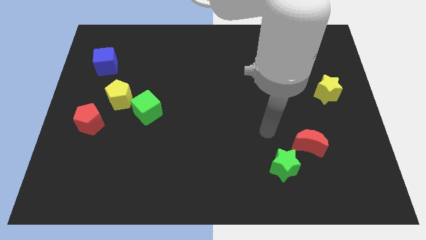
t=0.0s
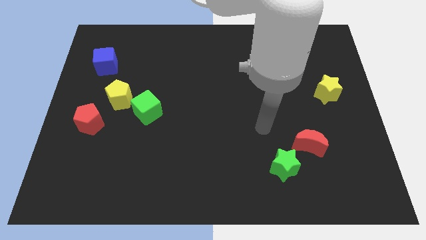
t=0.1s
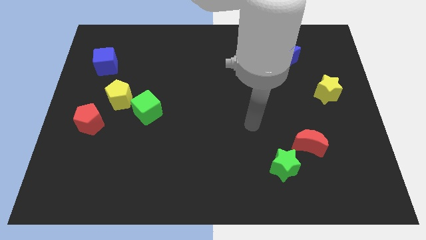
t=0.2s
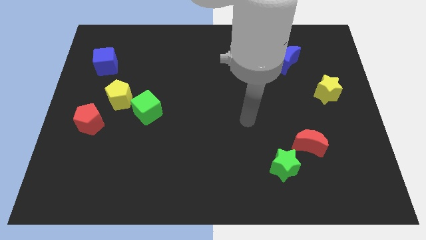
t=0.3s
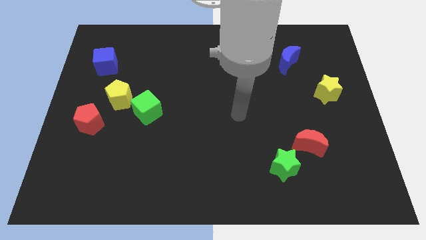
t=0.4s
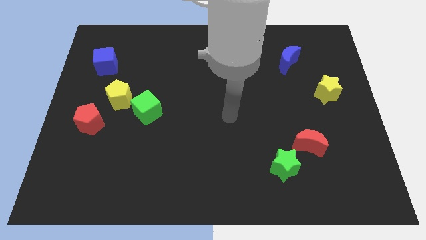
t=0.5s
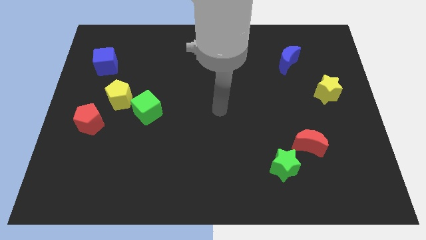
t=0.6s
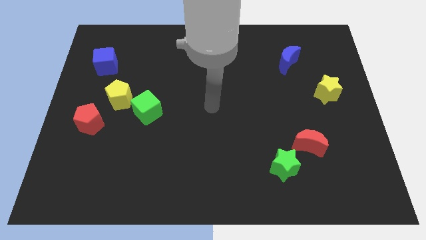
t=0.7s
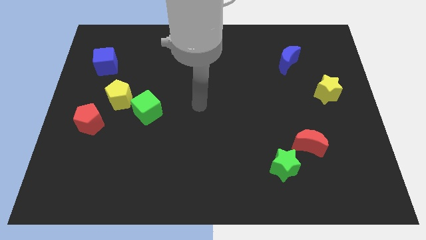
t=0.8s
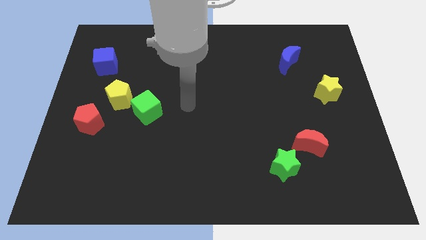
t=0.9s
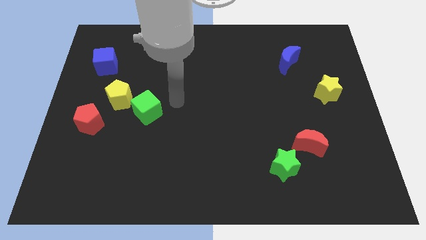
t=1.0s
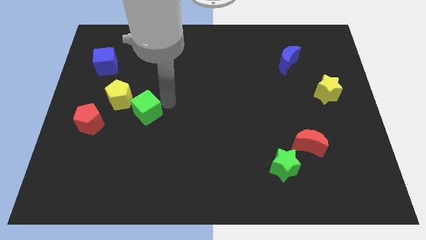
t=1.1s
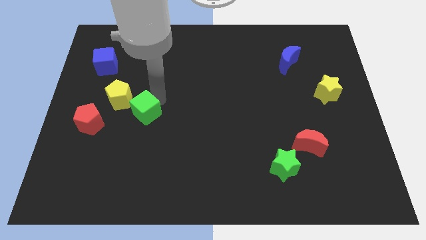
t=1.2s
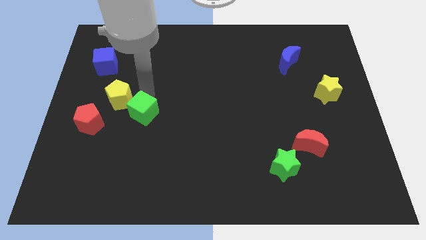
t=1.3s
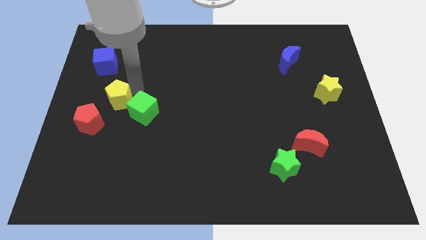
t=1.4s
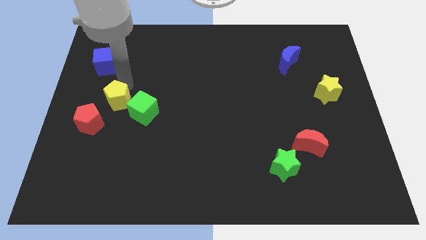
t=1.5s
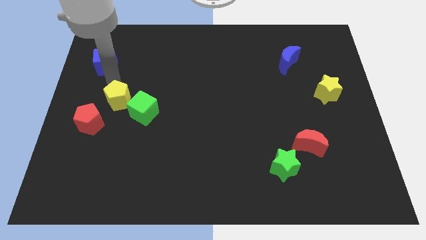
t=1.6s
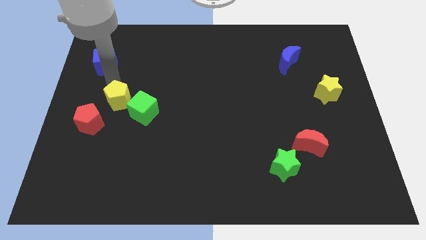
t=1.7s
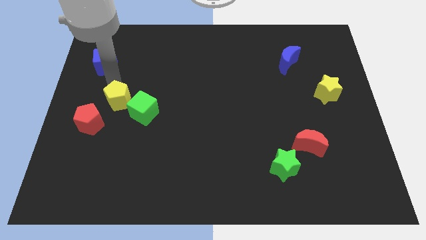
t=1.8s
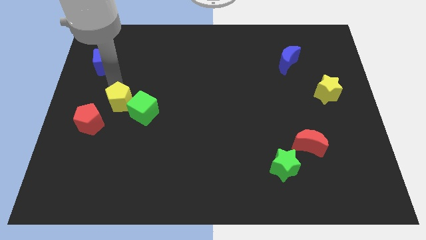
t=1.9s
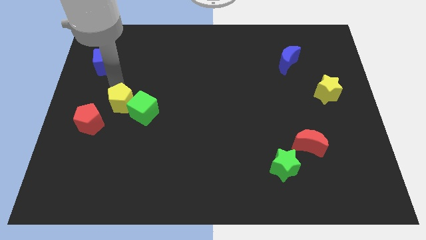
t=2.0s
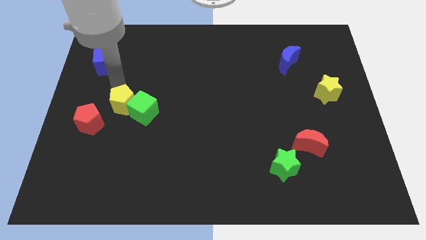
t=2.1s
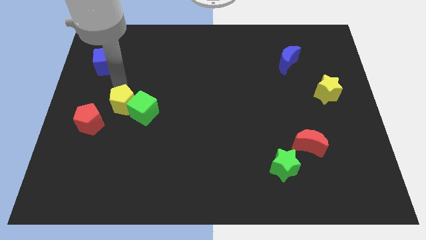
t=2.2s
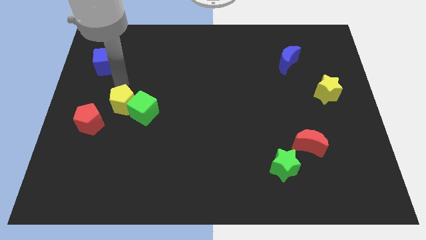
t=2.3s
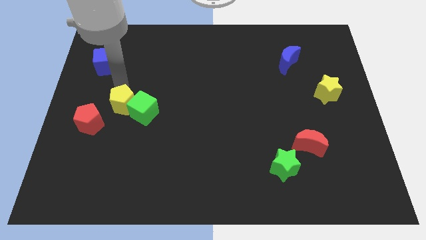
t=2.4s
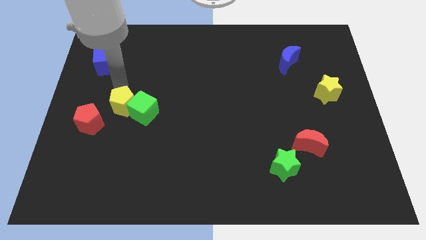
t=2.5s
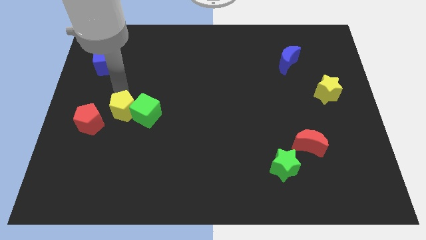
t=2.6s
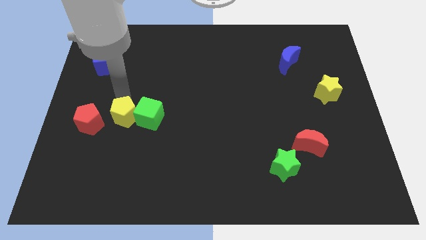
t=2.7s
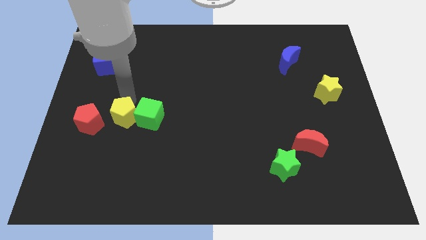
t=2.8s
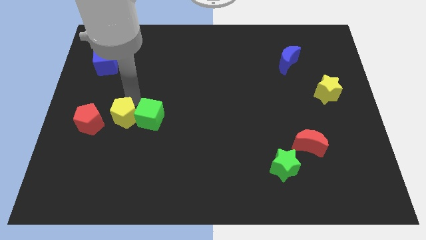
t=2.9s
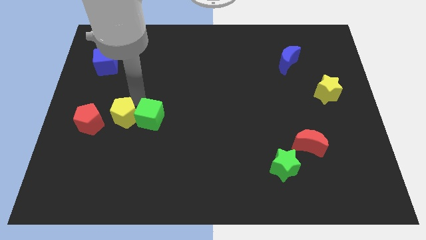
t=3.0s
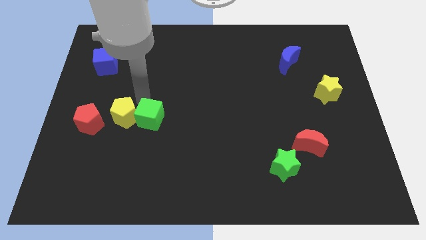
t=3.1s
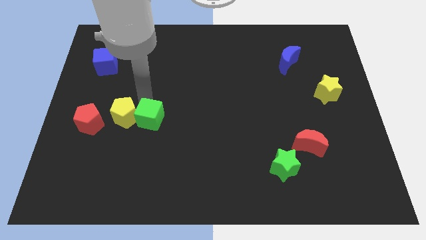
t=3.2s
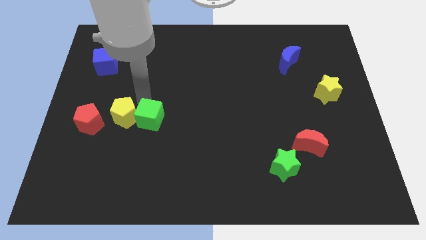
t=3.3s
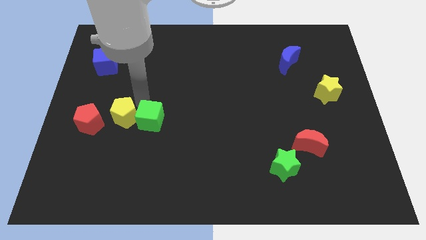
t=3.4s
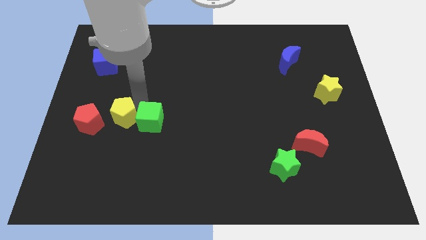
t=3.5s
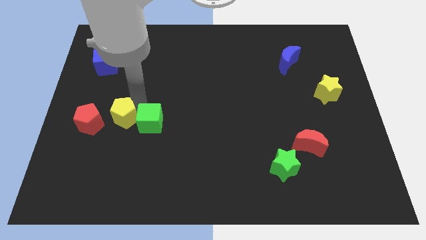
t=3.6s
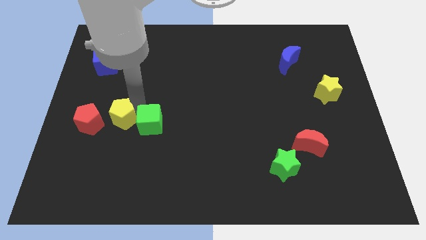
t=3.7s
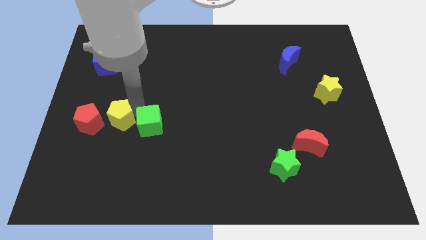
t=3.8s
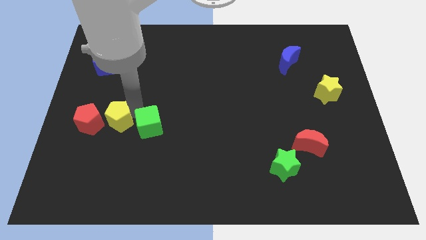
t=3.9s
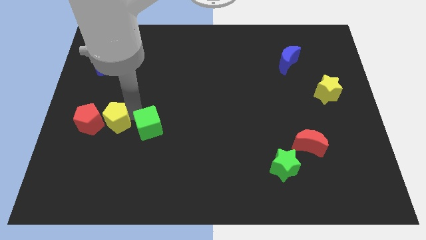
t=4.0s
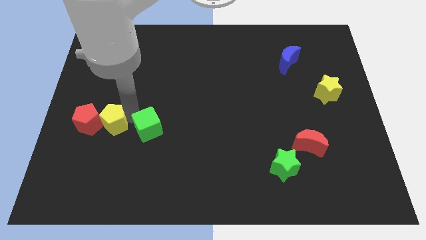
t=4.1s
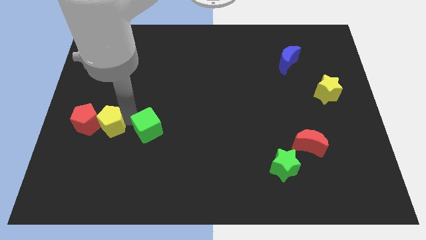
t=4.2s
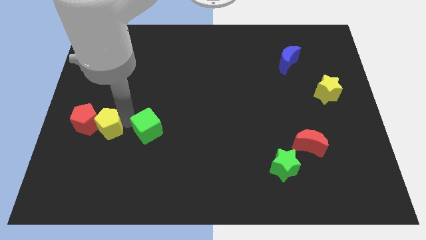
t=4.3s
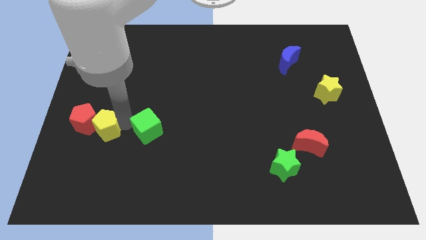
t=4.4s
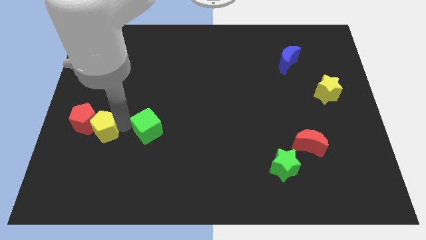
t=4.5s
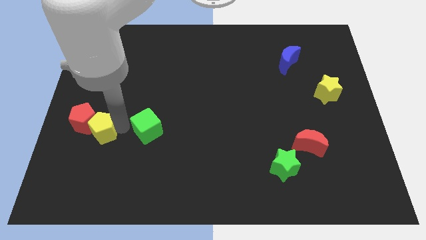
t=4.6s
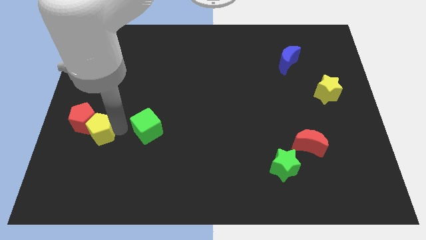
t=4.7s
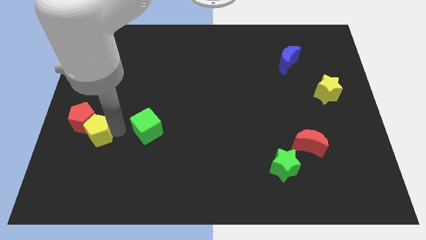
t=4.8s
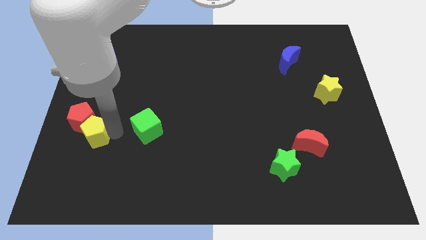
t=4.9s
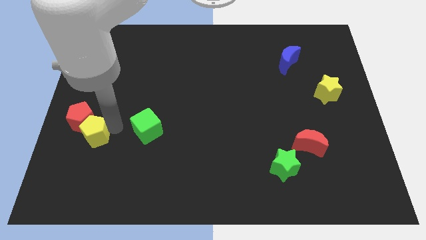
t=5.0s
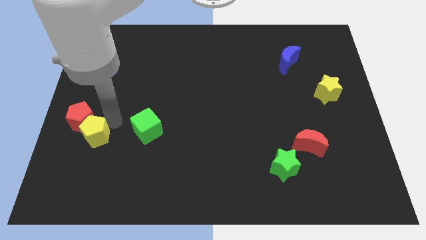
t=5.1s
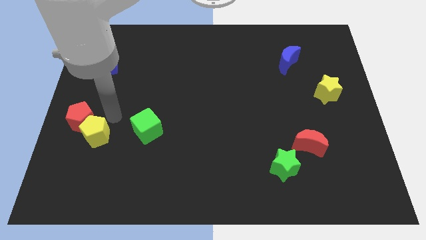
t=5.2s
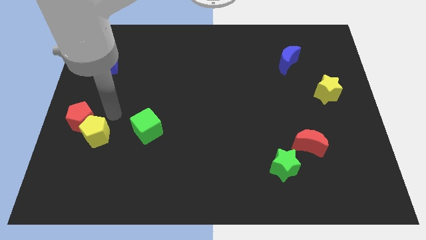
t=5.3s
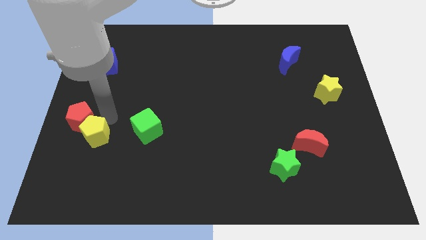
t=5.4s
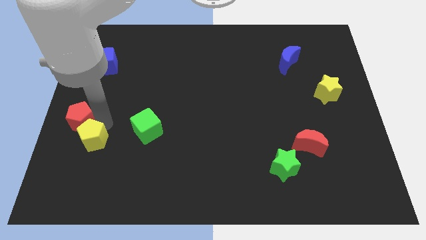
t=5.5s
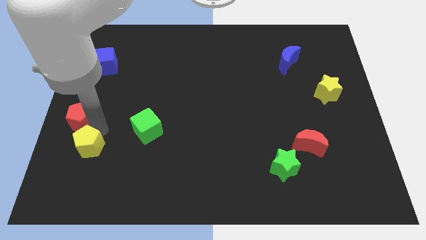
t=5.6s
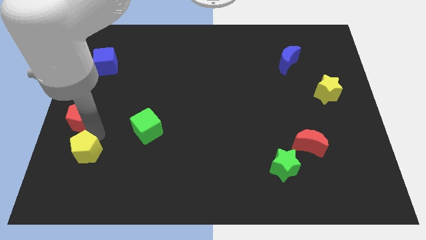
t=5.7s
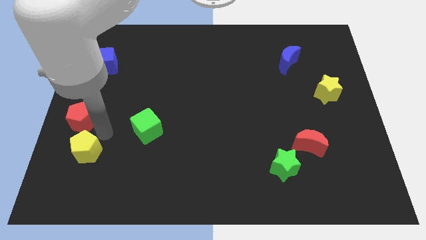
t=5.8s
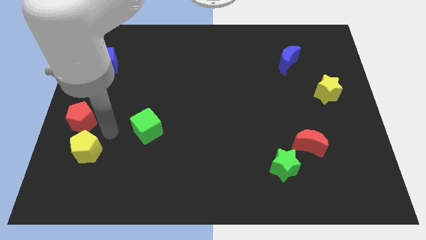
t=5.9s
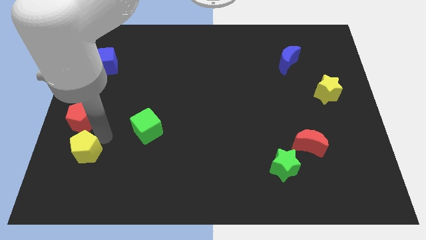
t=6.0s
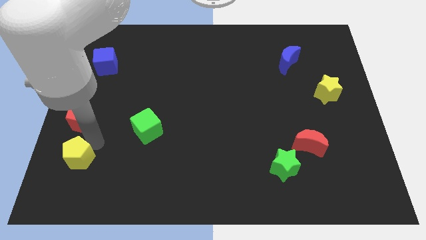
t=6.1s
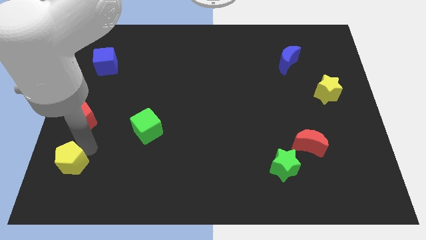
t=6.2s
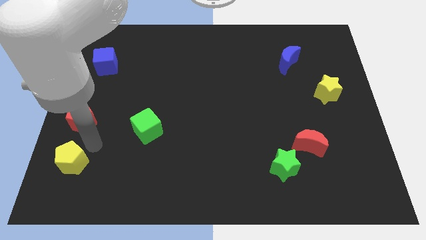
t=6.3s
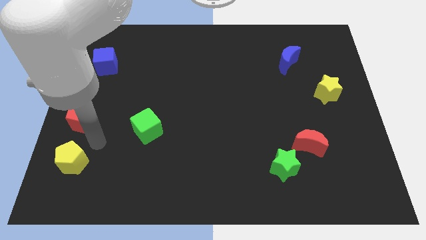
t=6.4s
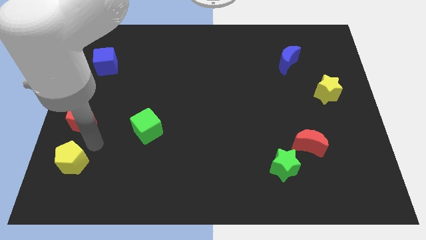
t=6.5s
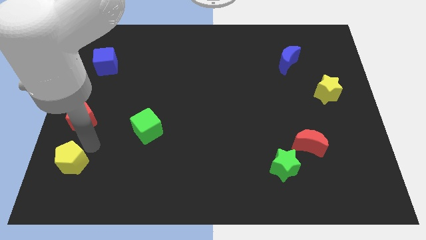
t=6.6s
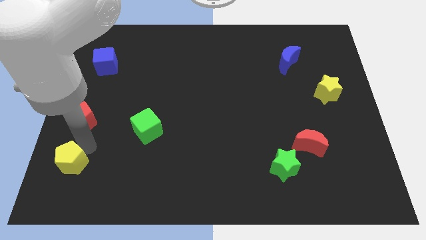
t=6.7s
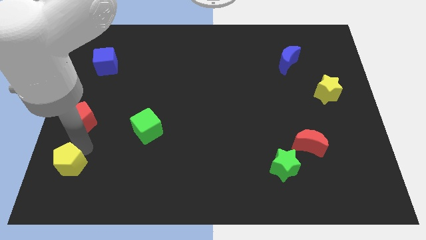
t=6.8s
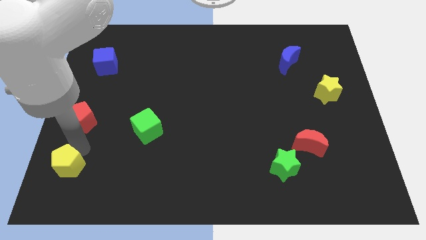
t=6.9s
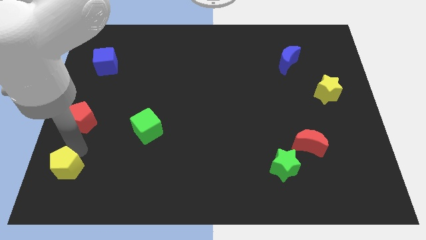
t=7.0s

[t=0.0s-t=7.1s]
put the yellow pentagon to the lower left corner
